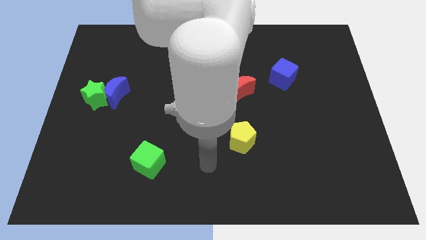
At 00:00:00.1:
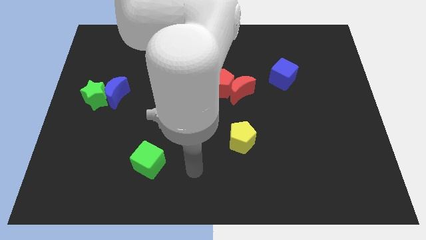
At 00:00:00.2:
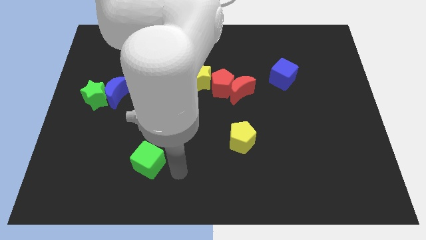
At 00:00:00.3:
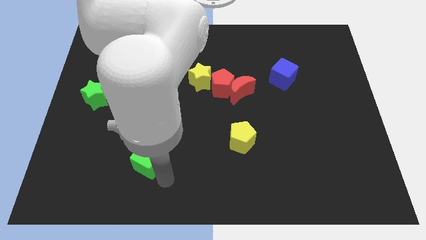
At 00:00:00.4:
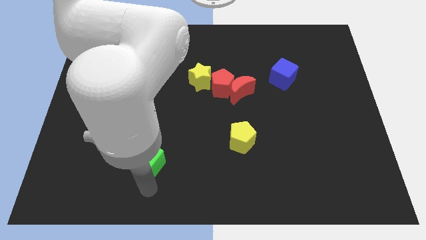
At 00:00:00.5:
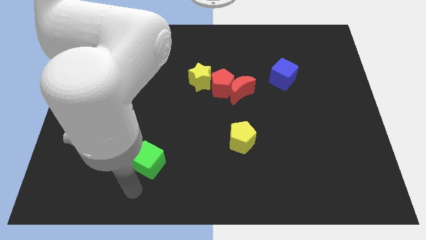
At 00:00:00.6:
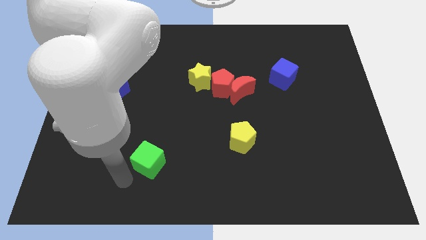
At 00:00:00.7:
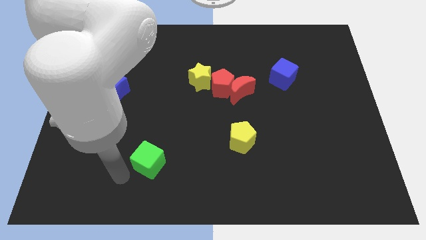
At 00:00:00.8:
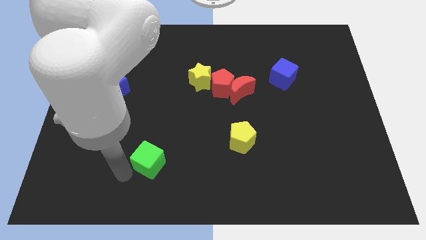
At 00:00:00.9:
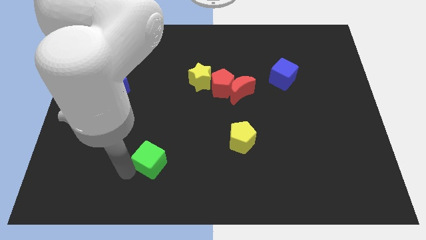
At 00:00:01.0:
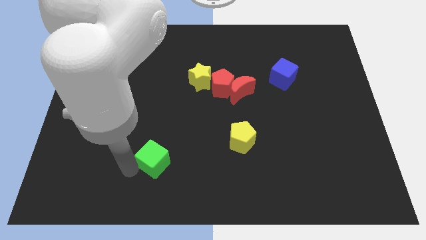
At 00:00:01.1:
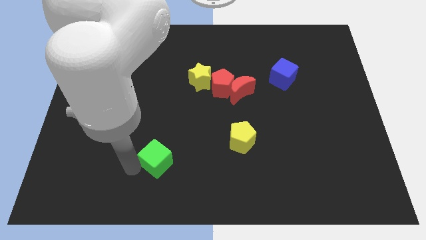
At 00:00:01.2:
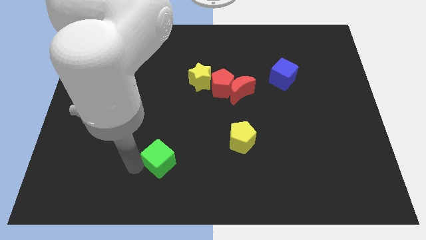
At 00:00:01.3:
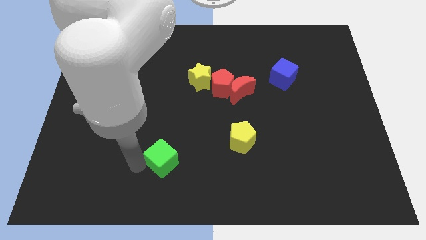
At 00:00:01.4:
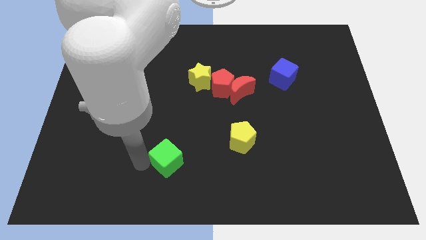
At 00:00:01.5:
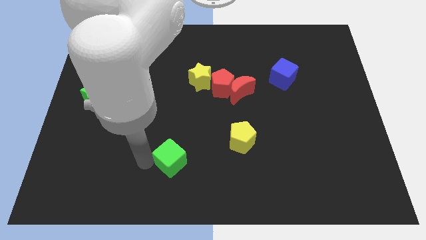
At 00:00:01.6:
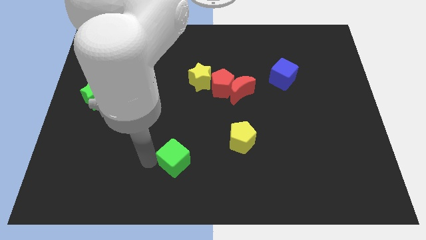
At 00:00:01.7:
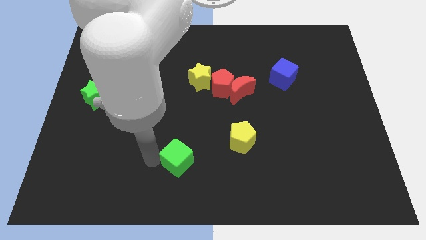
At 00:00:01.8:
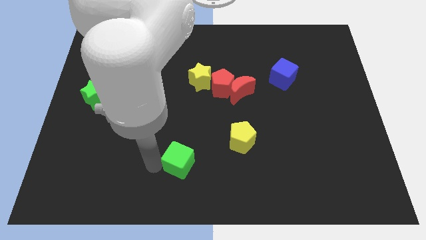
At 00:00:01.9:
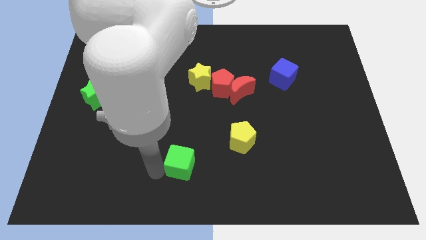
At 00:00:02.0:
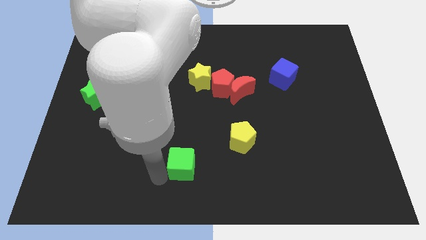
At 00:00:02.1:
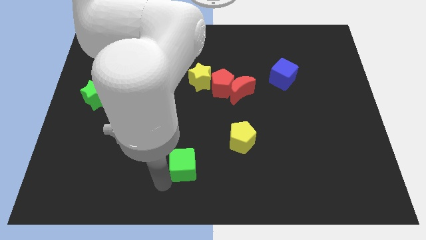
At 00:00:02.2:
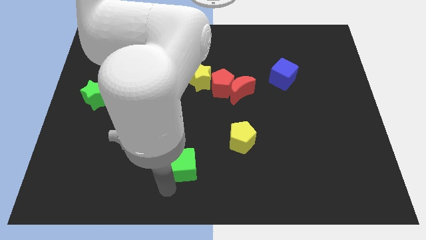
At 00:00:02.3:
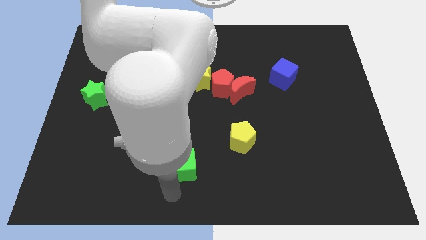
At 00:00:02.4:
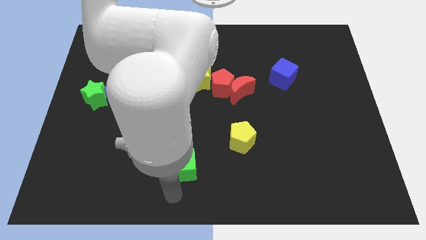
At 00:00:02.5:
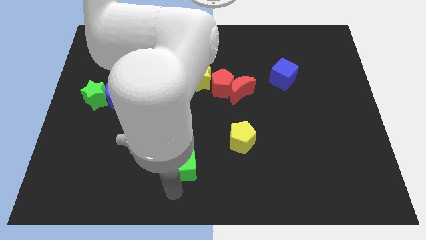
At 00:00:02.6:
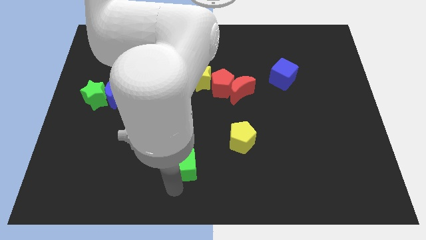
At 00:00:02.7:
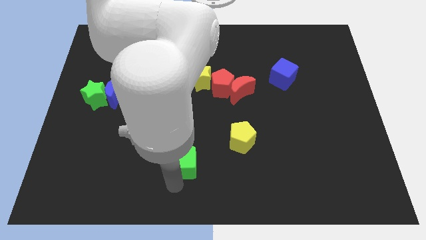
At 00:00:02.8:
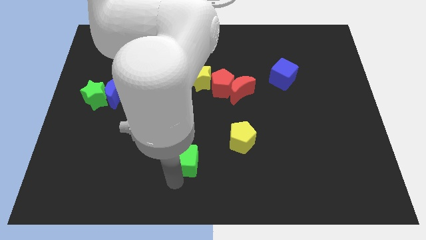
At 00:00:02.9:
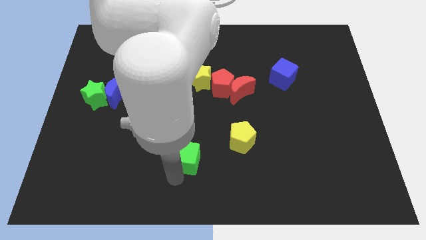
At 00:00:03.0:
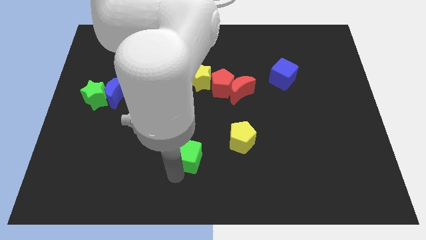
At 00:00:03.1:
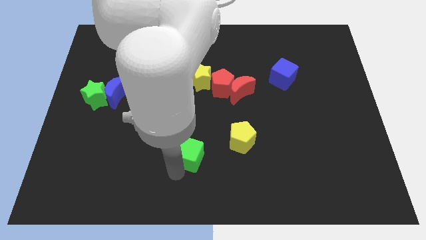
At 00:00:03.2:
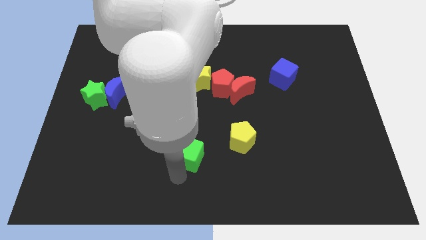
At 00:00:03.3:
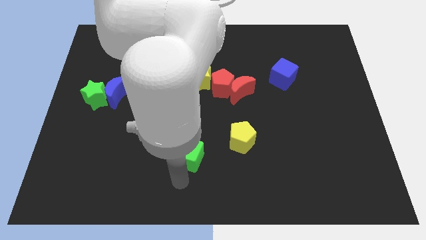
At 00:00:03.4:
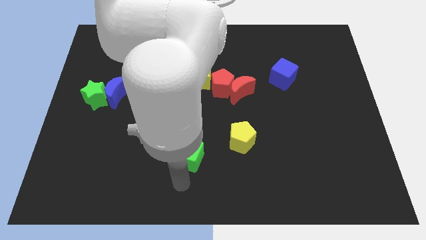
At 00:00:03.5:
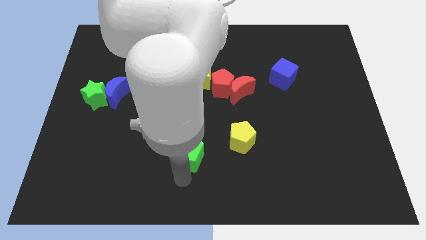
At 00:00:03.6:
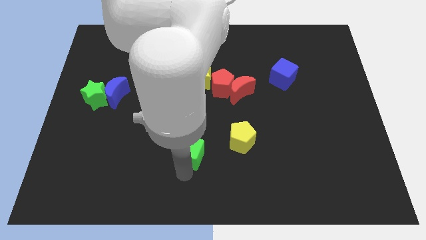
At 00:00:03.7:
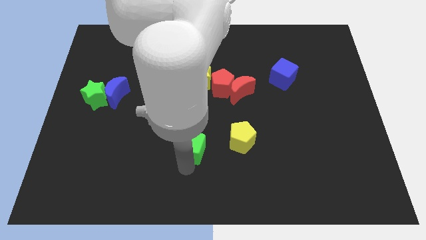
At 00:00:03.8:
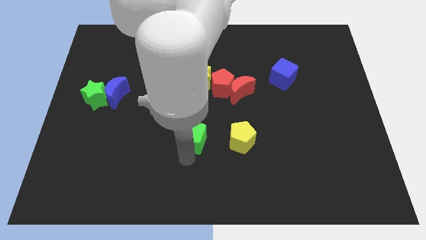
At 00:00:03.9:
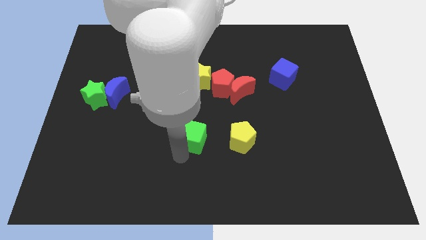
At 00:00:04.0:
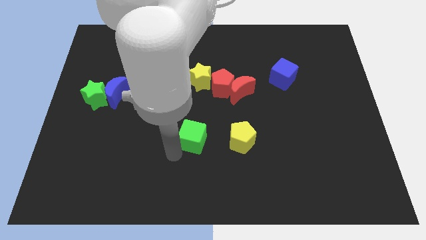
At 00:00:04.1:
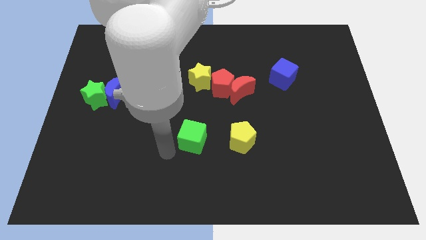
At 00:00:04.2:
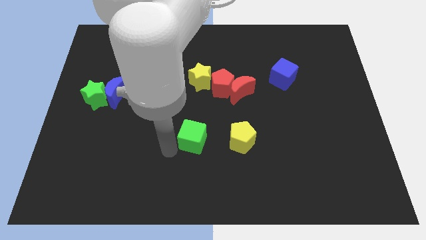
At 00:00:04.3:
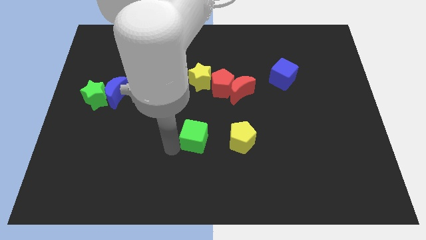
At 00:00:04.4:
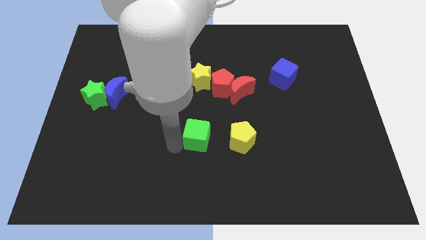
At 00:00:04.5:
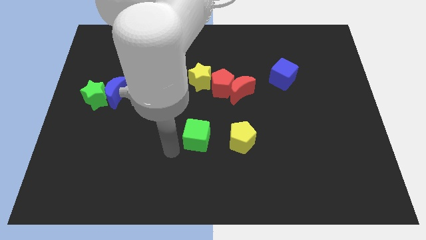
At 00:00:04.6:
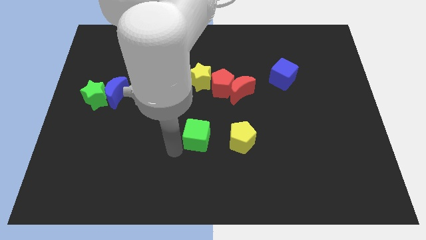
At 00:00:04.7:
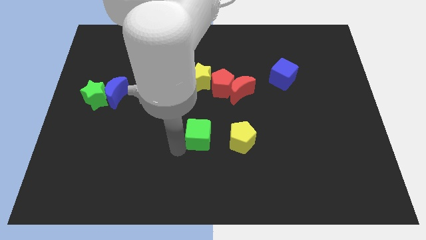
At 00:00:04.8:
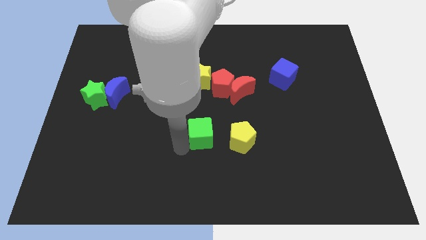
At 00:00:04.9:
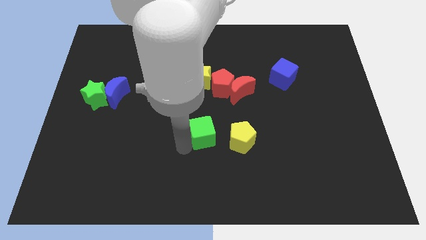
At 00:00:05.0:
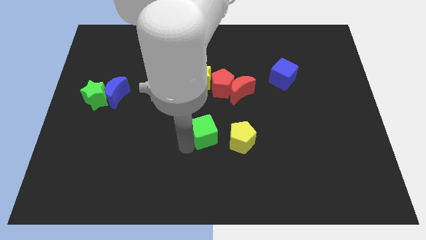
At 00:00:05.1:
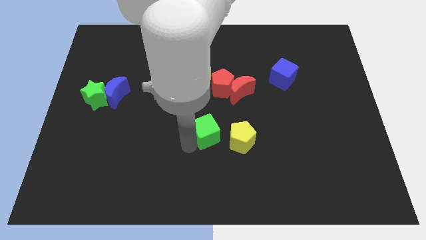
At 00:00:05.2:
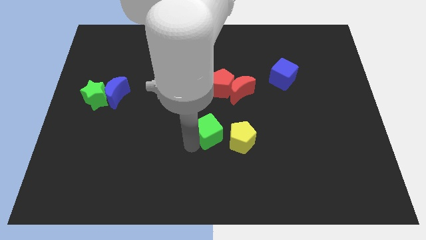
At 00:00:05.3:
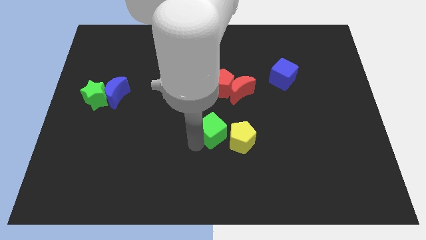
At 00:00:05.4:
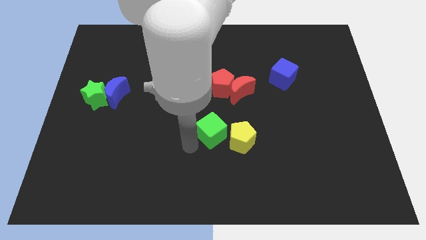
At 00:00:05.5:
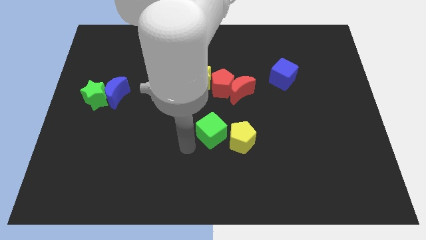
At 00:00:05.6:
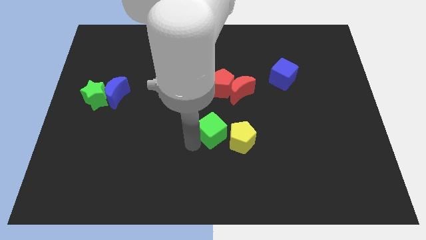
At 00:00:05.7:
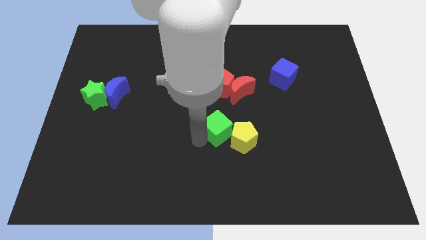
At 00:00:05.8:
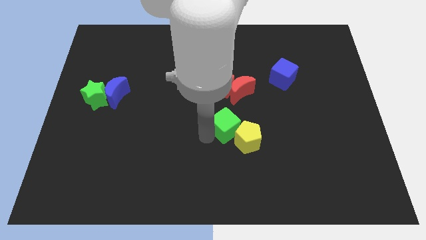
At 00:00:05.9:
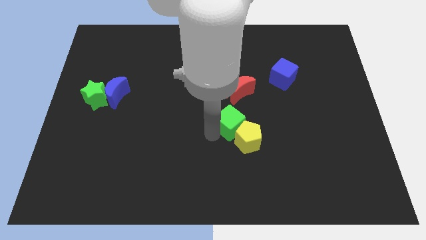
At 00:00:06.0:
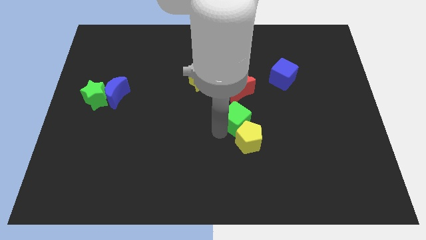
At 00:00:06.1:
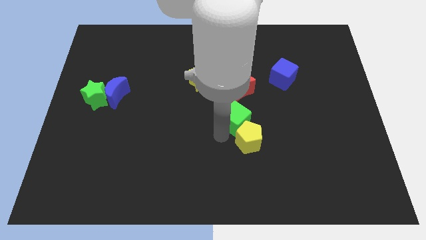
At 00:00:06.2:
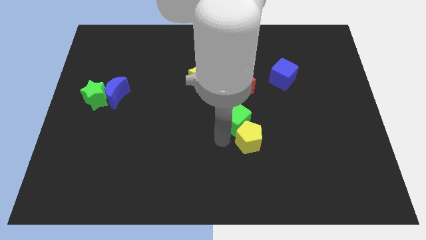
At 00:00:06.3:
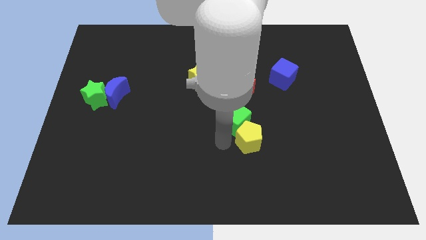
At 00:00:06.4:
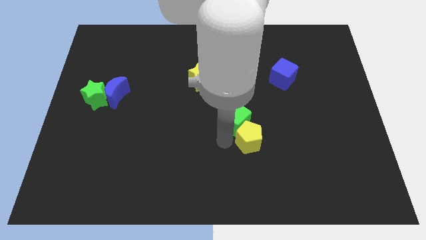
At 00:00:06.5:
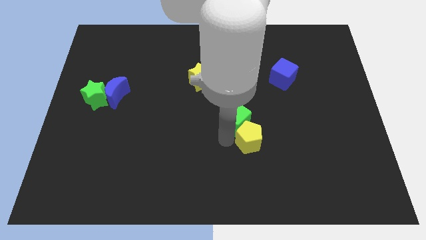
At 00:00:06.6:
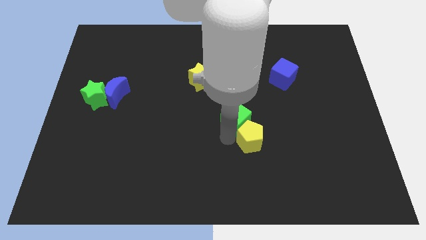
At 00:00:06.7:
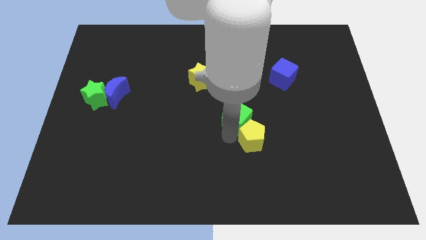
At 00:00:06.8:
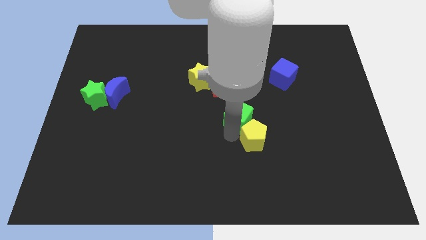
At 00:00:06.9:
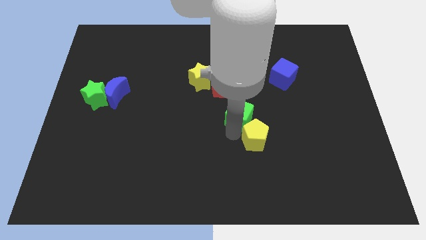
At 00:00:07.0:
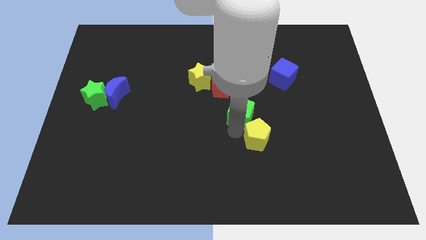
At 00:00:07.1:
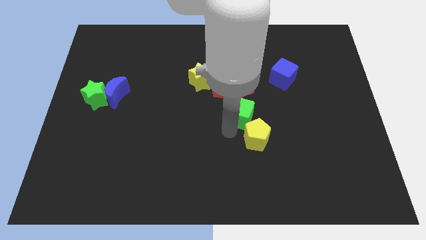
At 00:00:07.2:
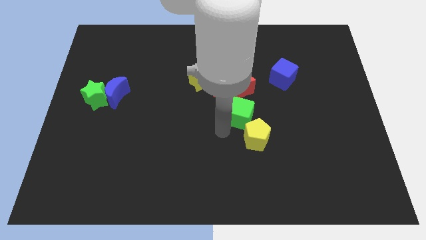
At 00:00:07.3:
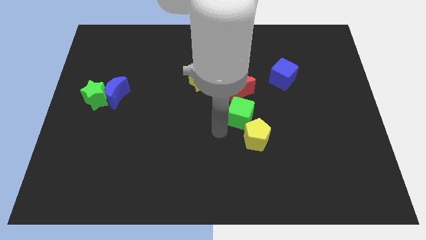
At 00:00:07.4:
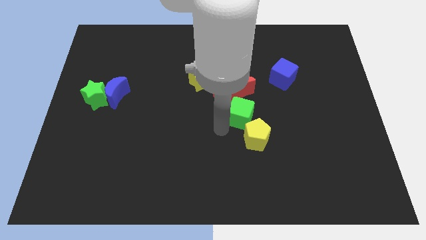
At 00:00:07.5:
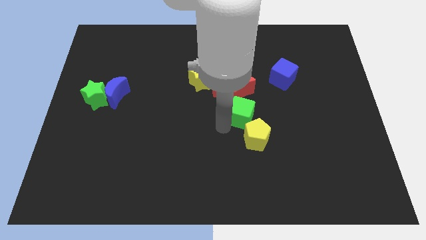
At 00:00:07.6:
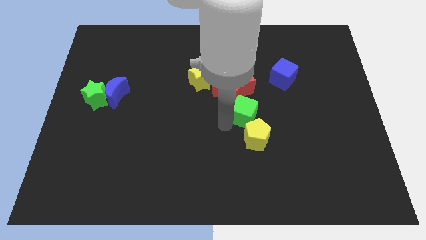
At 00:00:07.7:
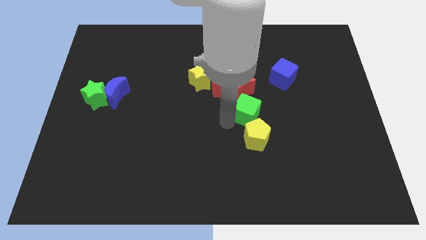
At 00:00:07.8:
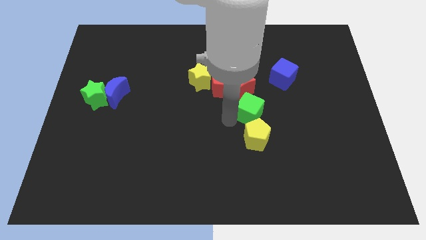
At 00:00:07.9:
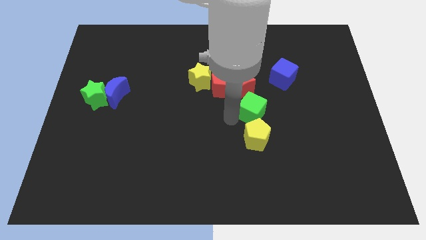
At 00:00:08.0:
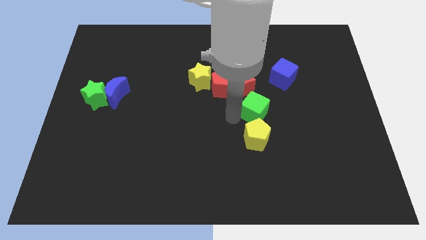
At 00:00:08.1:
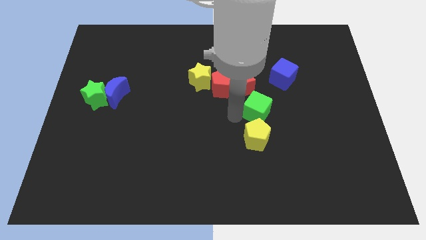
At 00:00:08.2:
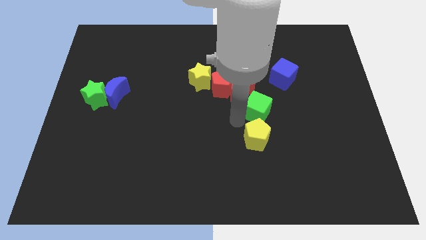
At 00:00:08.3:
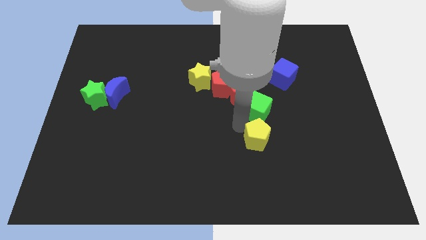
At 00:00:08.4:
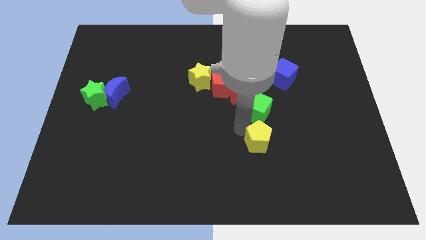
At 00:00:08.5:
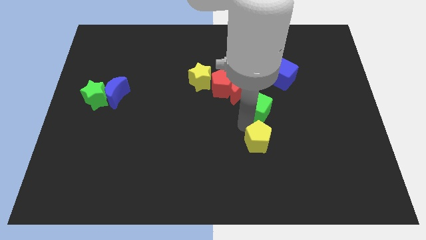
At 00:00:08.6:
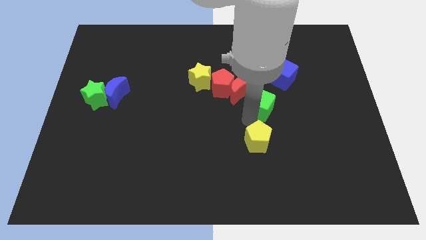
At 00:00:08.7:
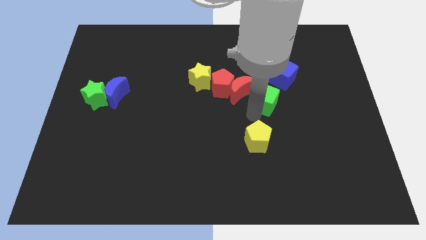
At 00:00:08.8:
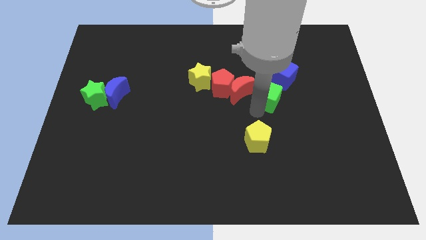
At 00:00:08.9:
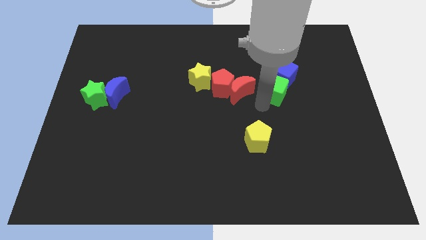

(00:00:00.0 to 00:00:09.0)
slide the green cube next to the blue cube
